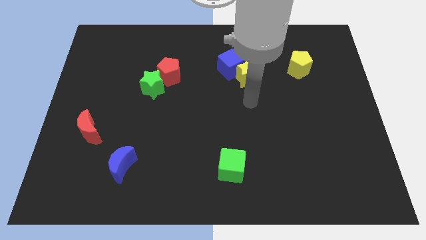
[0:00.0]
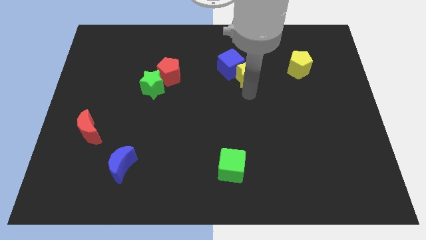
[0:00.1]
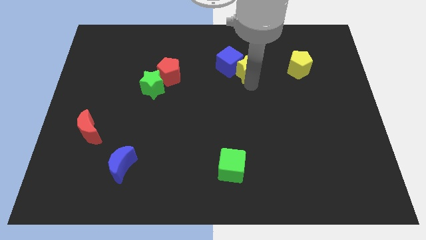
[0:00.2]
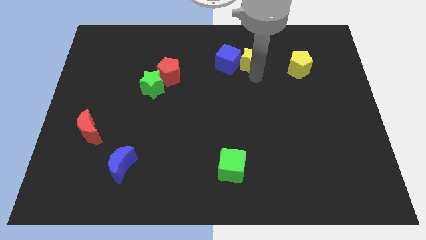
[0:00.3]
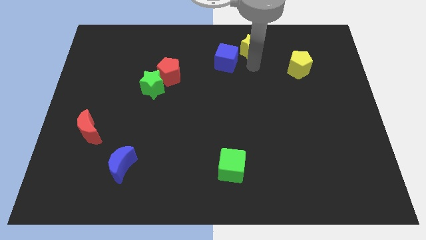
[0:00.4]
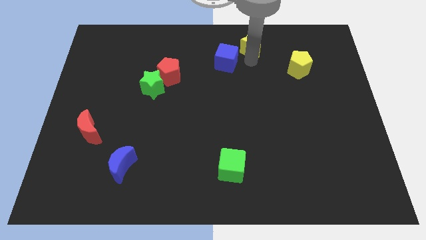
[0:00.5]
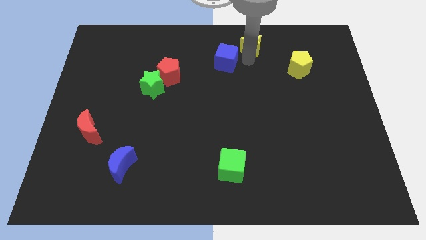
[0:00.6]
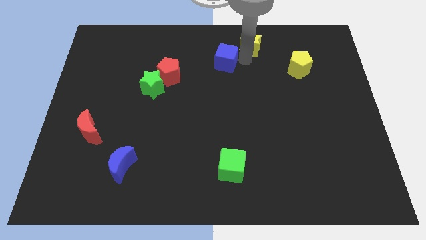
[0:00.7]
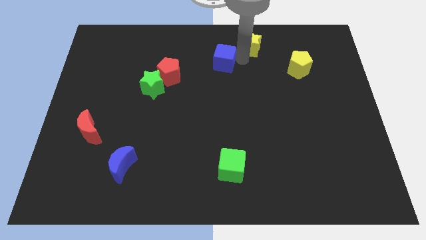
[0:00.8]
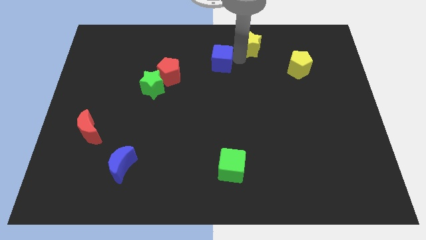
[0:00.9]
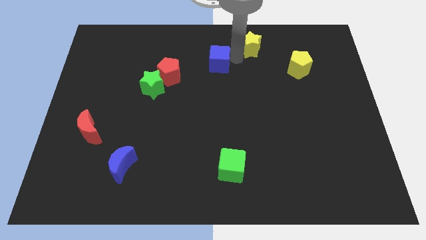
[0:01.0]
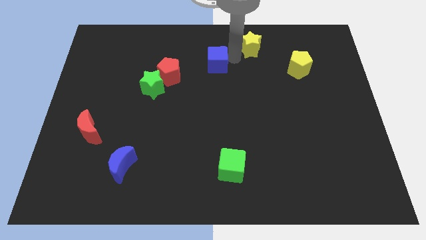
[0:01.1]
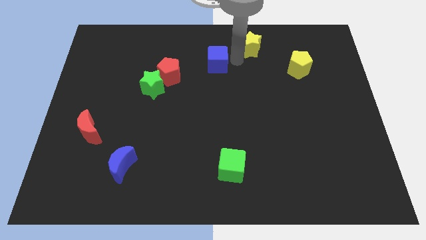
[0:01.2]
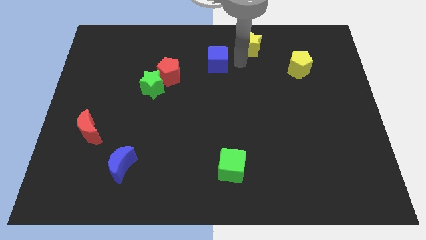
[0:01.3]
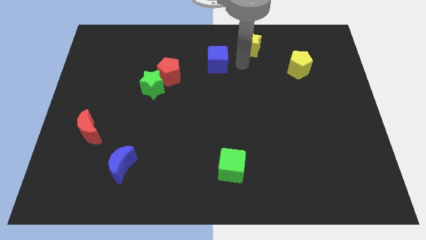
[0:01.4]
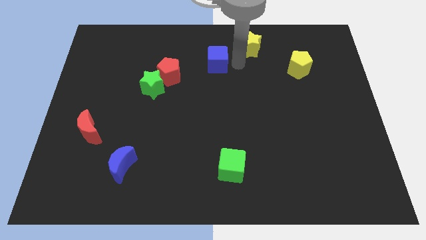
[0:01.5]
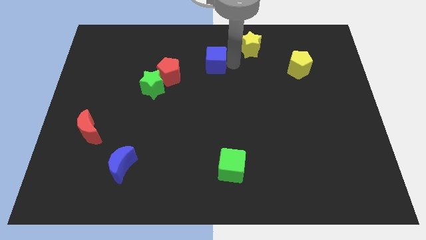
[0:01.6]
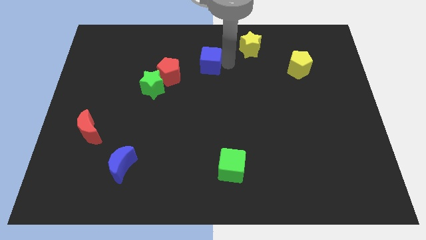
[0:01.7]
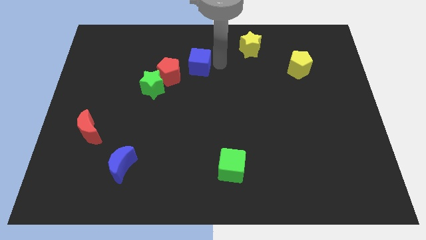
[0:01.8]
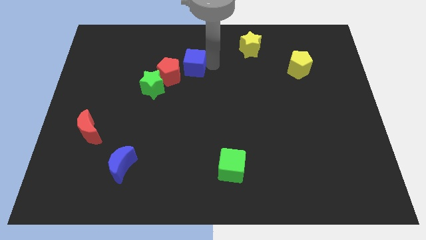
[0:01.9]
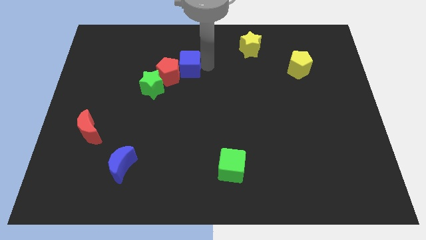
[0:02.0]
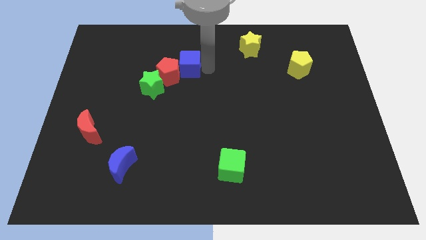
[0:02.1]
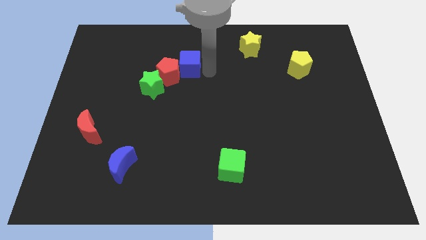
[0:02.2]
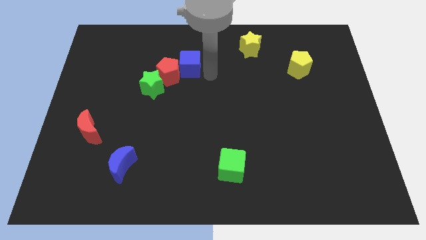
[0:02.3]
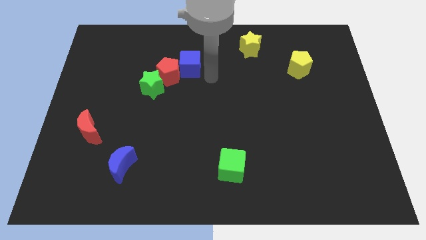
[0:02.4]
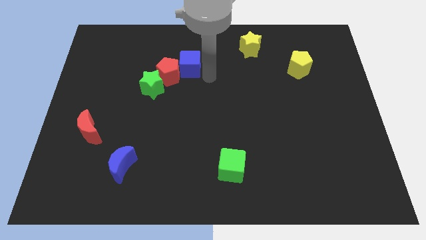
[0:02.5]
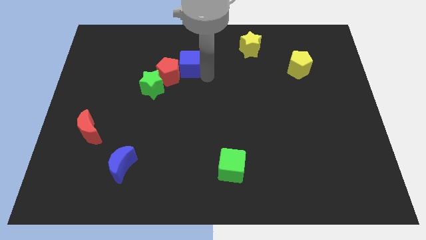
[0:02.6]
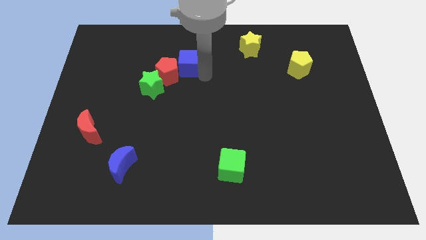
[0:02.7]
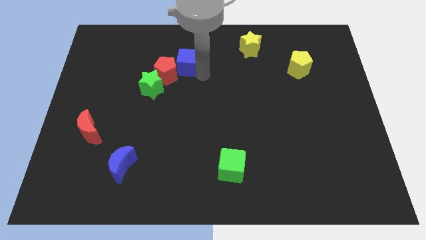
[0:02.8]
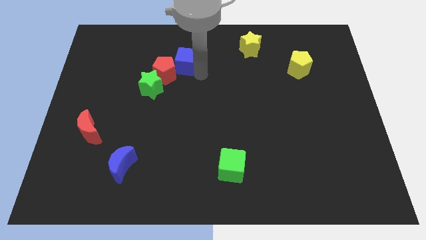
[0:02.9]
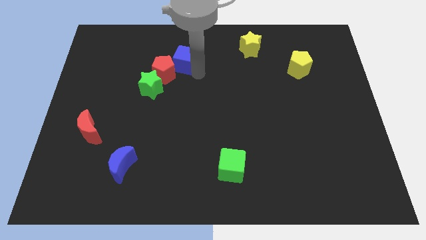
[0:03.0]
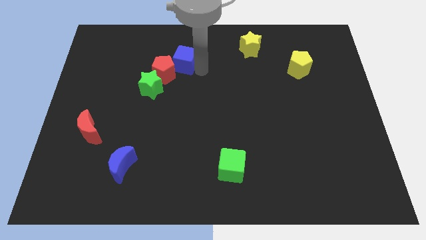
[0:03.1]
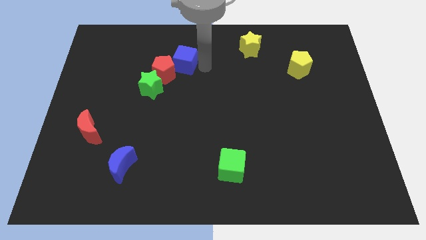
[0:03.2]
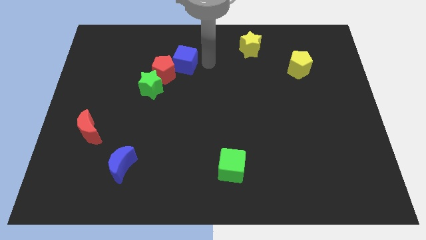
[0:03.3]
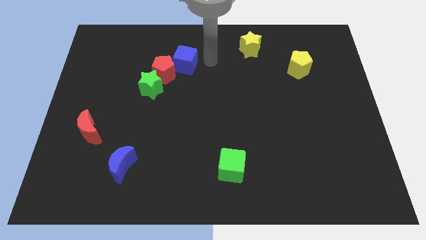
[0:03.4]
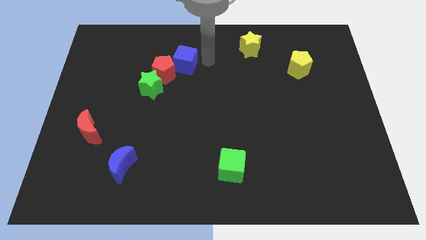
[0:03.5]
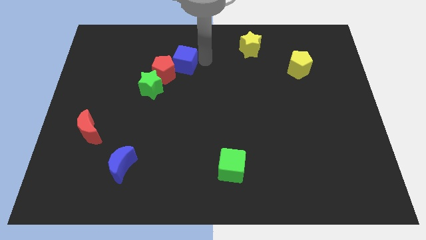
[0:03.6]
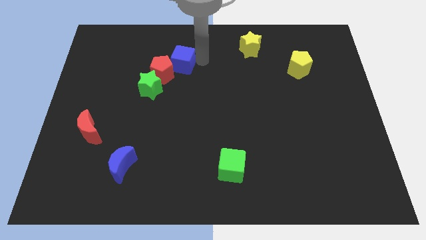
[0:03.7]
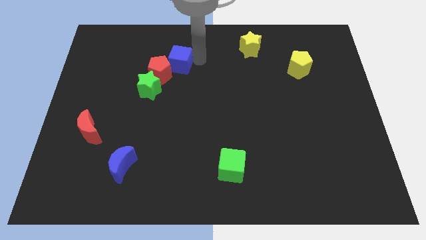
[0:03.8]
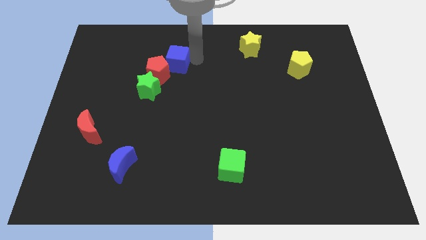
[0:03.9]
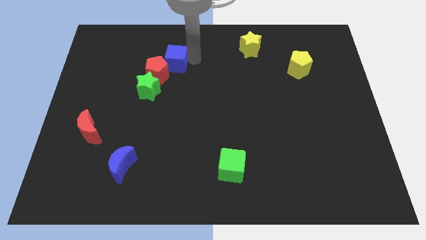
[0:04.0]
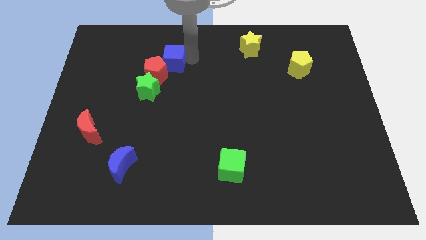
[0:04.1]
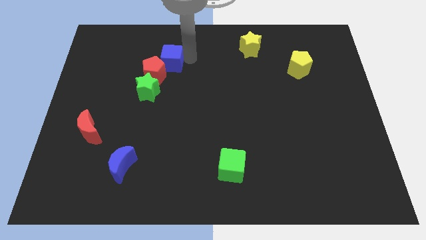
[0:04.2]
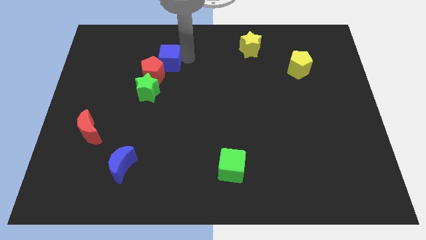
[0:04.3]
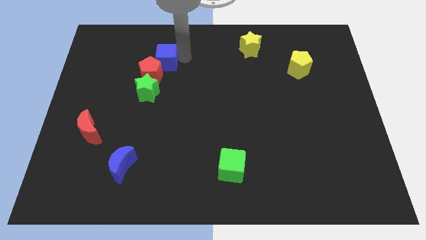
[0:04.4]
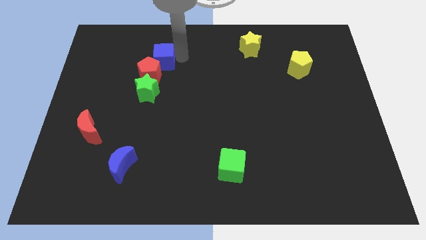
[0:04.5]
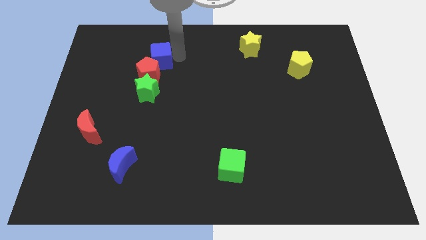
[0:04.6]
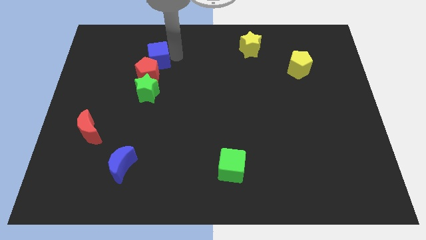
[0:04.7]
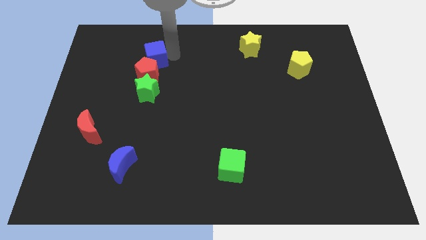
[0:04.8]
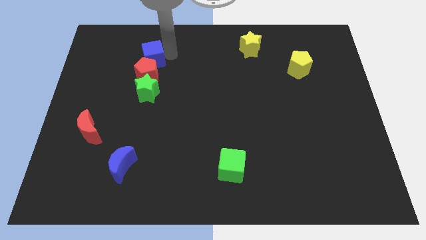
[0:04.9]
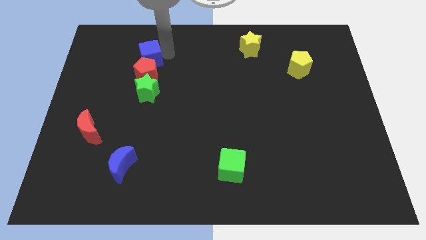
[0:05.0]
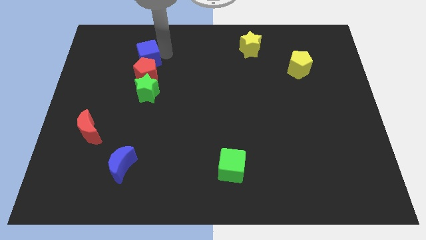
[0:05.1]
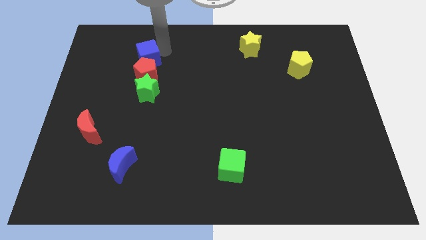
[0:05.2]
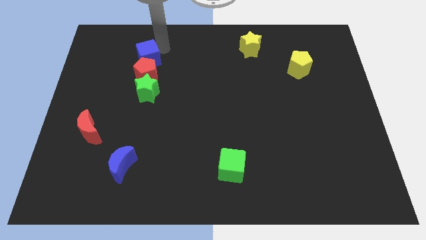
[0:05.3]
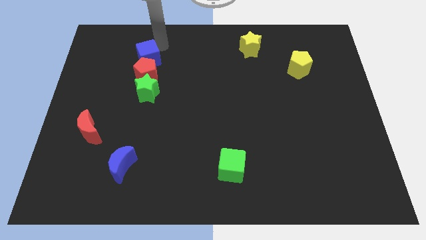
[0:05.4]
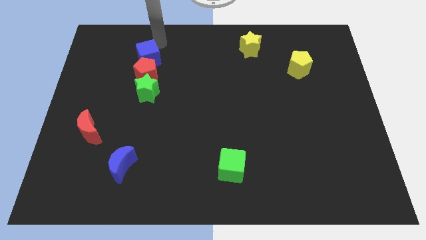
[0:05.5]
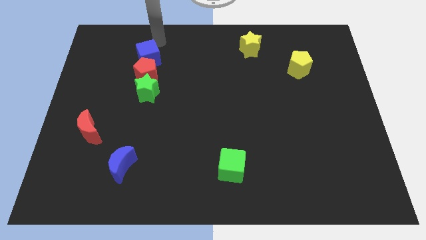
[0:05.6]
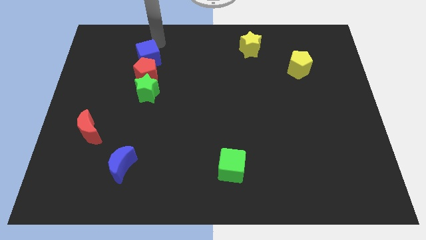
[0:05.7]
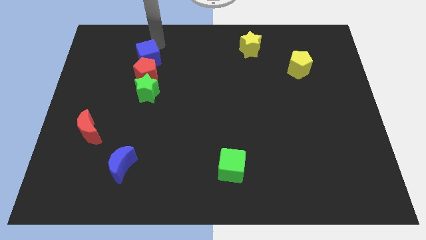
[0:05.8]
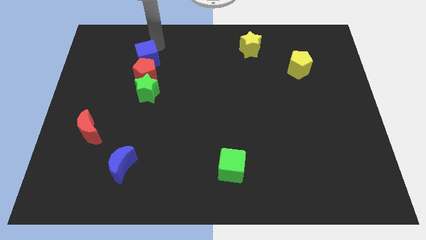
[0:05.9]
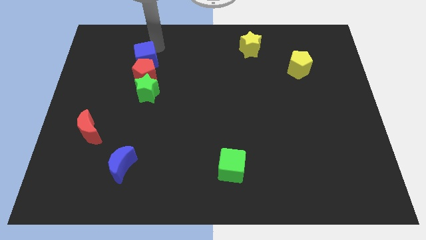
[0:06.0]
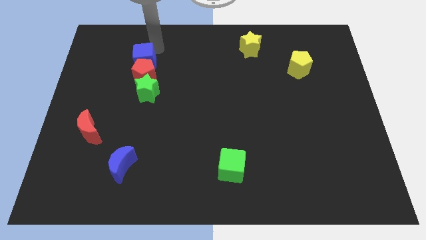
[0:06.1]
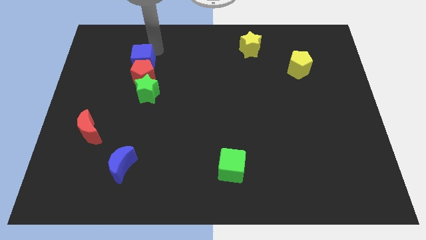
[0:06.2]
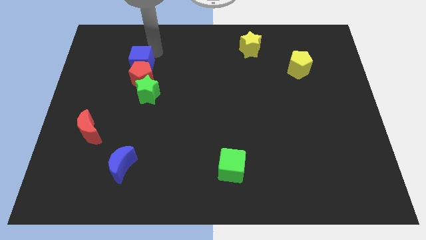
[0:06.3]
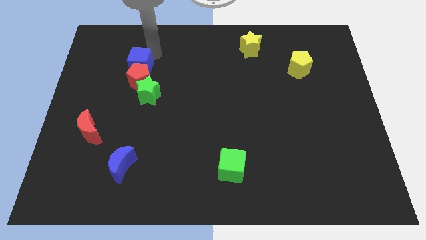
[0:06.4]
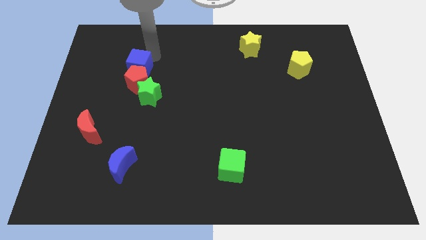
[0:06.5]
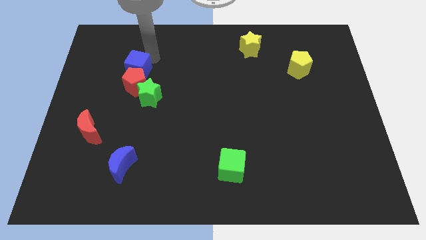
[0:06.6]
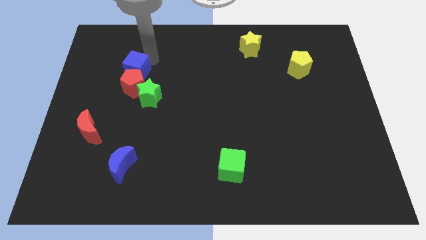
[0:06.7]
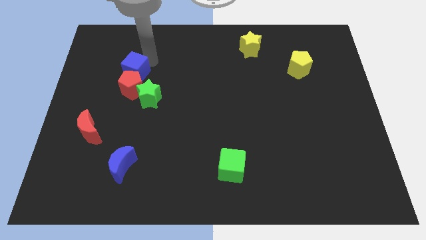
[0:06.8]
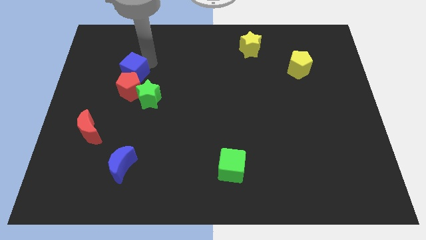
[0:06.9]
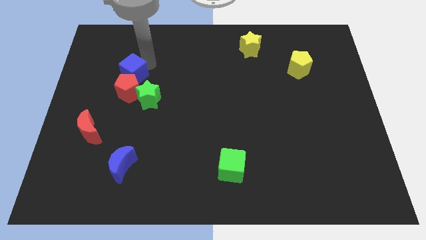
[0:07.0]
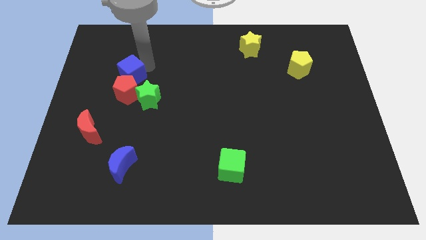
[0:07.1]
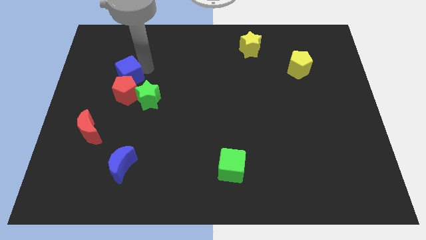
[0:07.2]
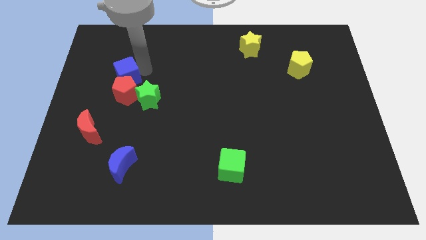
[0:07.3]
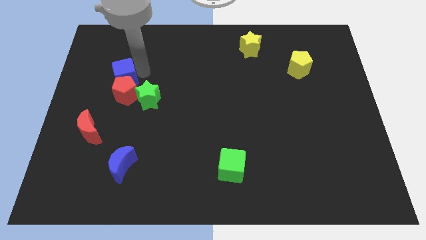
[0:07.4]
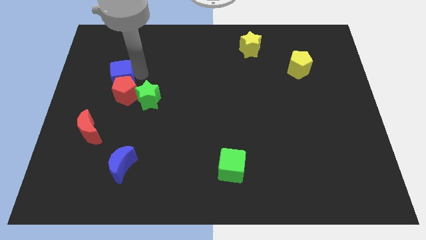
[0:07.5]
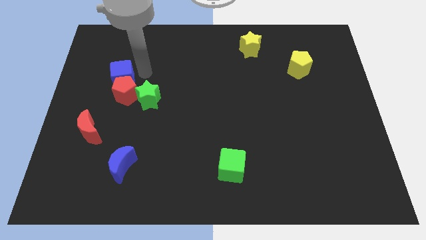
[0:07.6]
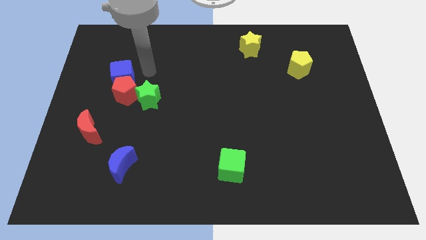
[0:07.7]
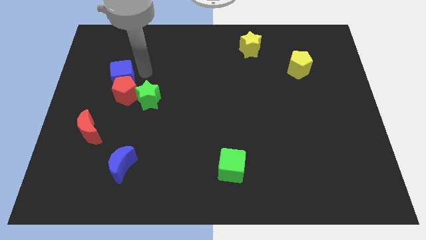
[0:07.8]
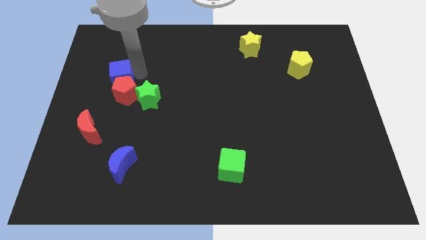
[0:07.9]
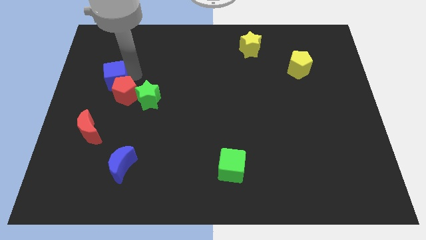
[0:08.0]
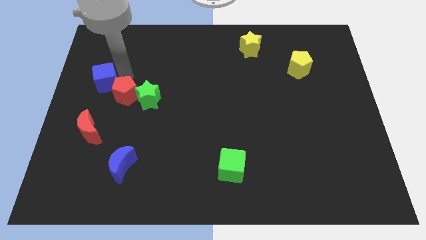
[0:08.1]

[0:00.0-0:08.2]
slide the blue cube to the left side of the board
